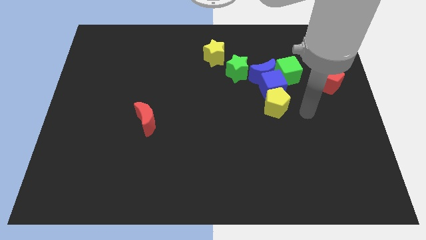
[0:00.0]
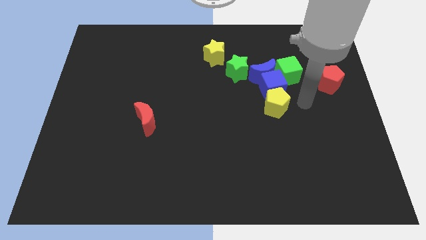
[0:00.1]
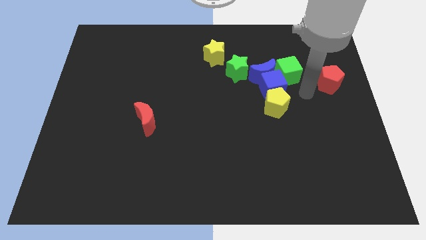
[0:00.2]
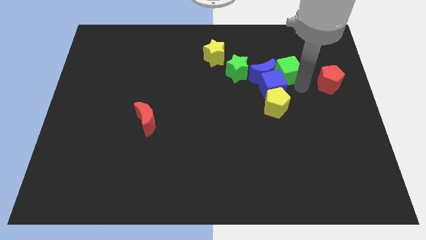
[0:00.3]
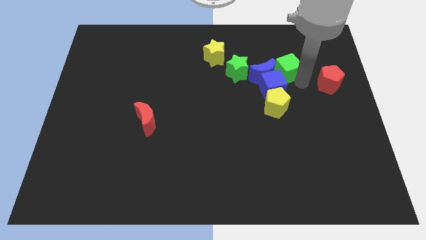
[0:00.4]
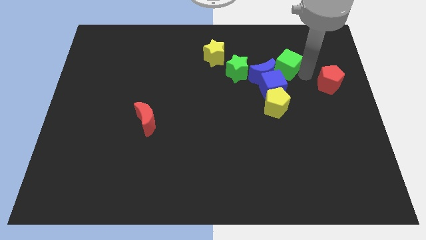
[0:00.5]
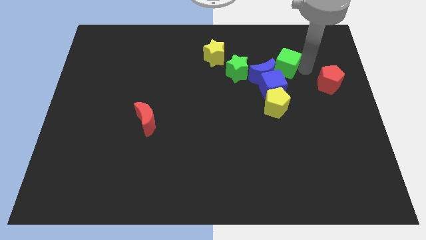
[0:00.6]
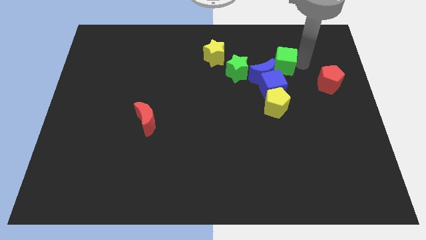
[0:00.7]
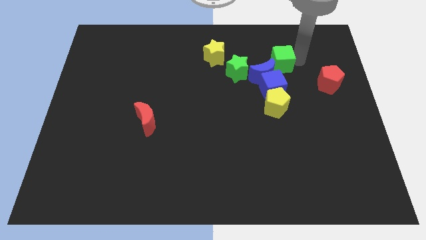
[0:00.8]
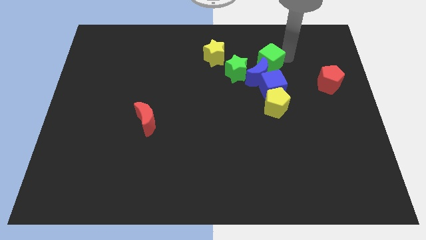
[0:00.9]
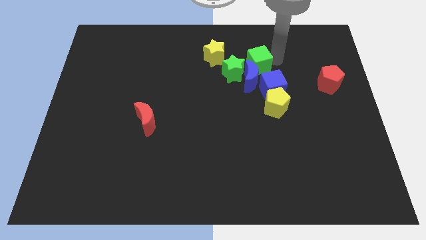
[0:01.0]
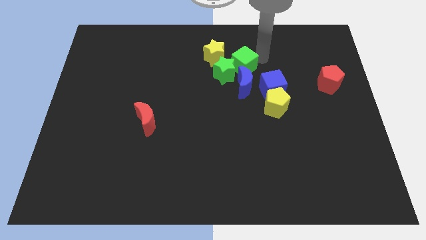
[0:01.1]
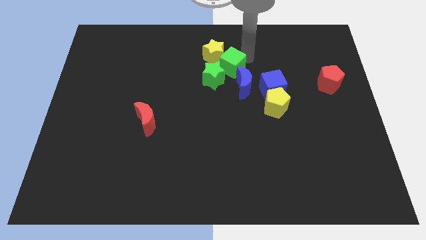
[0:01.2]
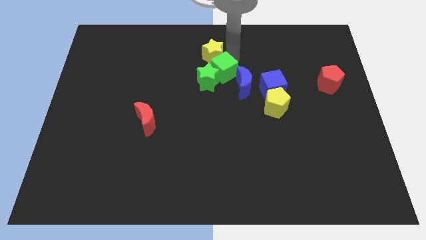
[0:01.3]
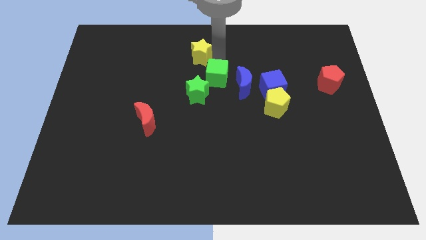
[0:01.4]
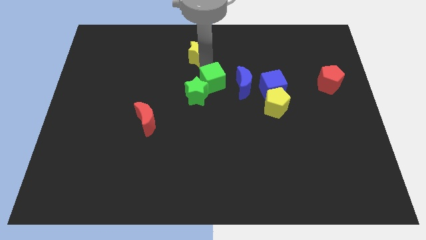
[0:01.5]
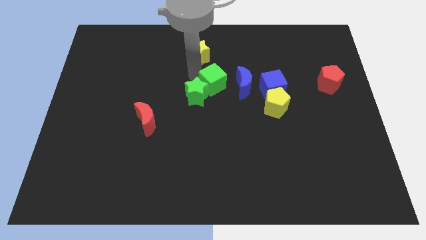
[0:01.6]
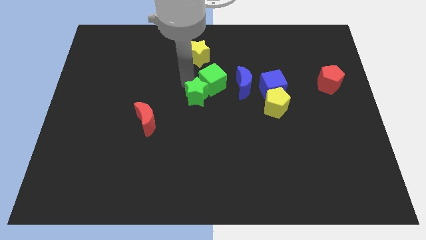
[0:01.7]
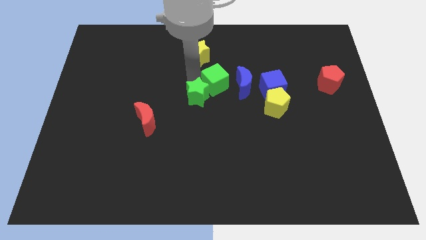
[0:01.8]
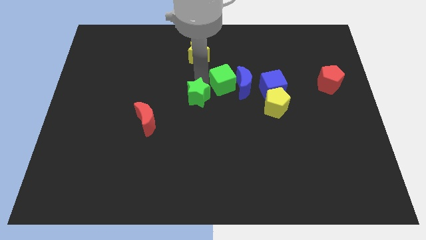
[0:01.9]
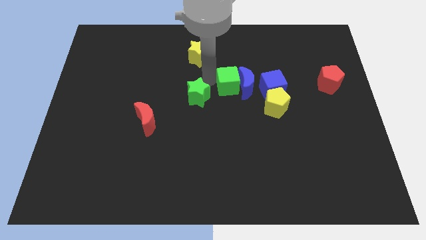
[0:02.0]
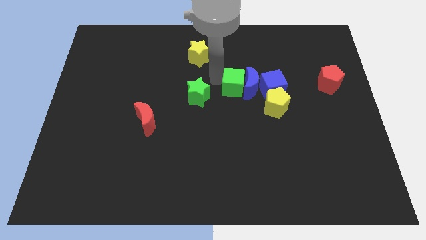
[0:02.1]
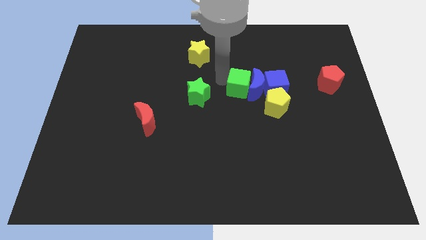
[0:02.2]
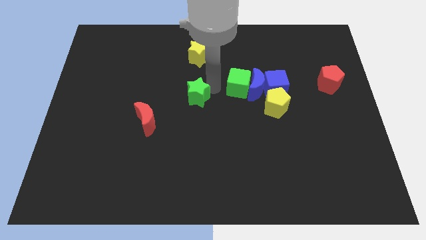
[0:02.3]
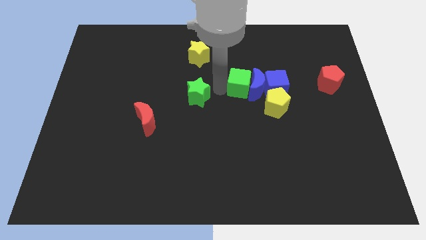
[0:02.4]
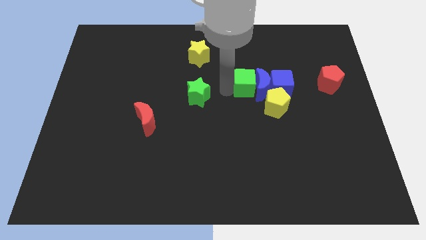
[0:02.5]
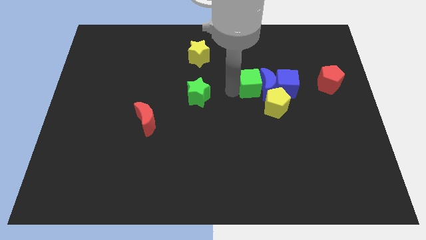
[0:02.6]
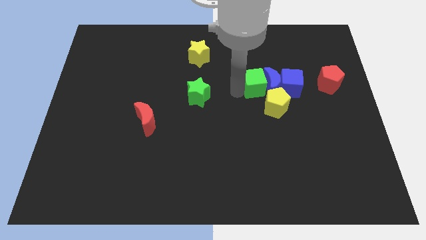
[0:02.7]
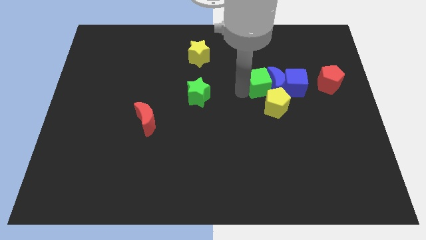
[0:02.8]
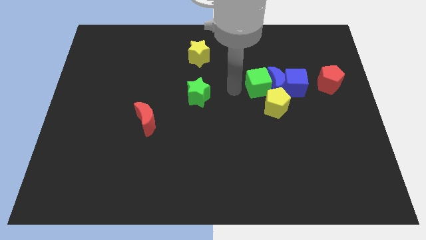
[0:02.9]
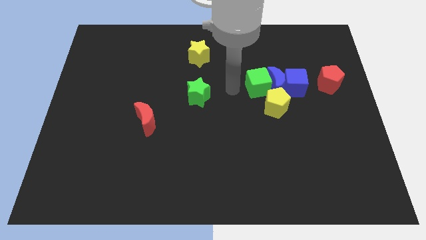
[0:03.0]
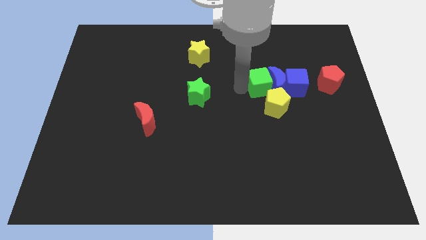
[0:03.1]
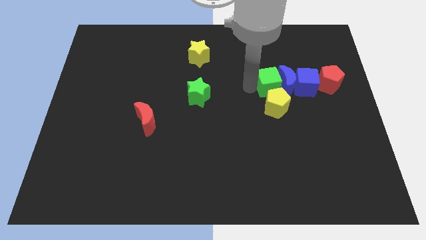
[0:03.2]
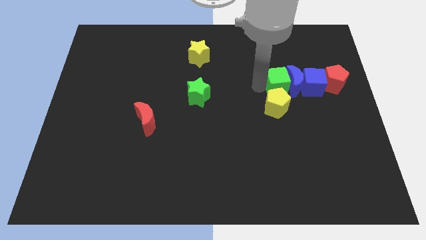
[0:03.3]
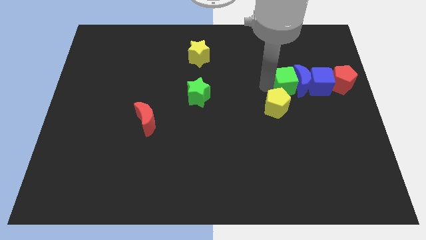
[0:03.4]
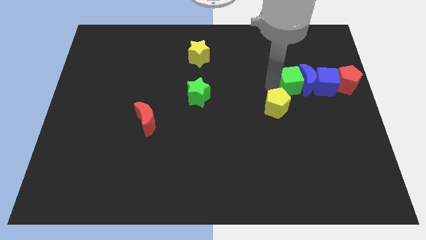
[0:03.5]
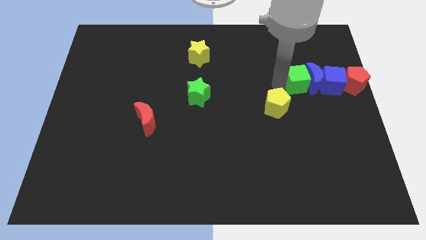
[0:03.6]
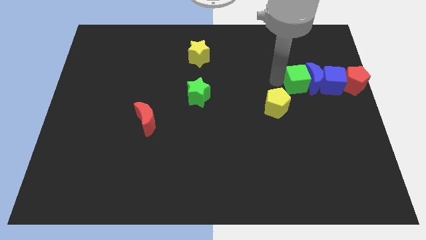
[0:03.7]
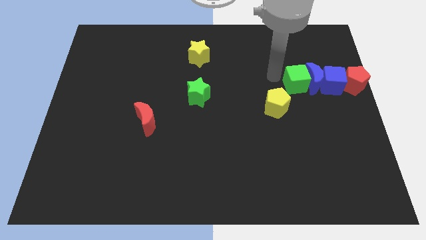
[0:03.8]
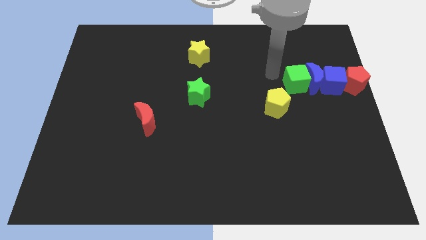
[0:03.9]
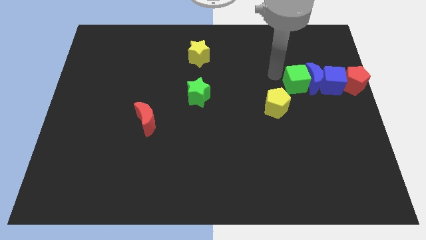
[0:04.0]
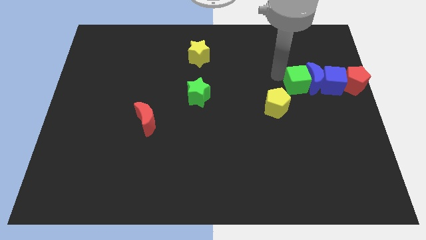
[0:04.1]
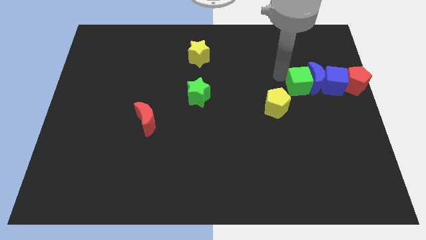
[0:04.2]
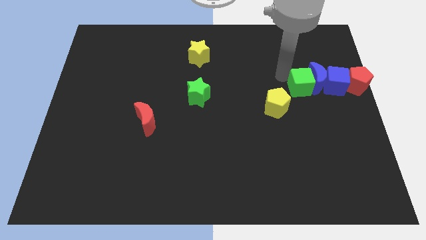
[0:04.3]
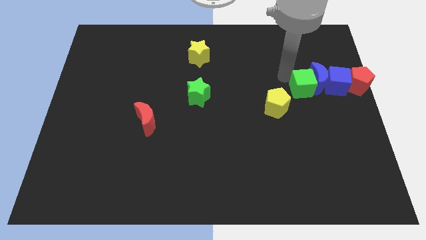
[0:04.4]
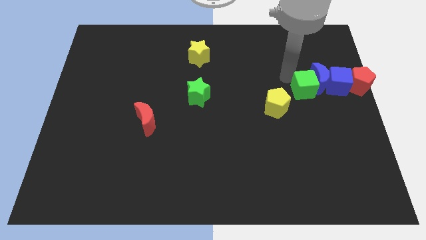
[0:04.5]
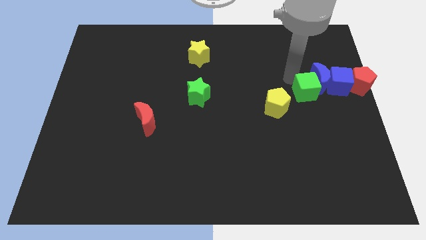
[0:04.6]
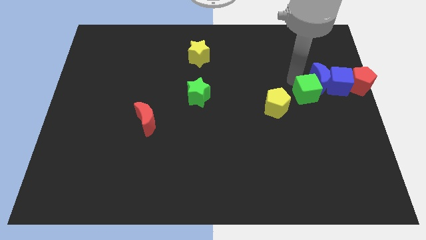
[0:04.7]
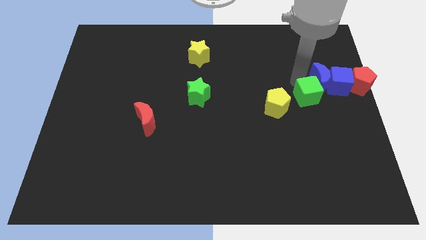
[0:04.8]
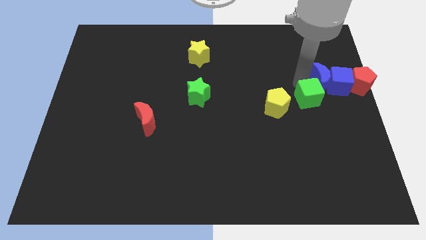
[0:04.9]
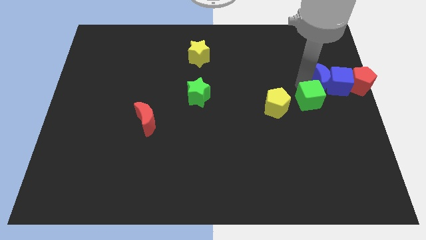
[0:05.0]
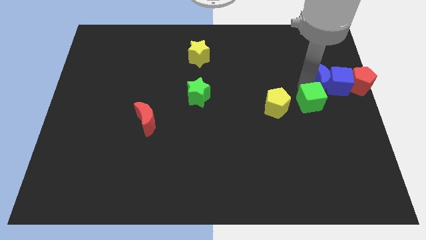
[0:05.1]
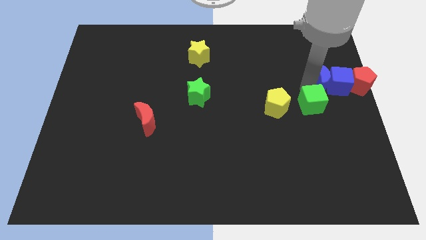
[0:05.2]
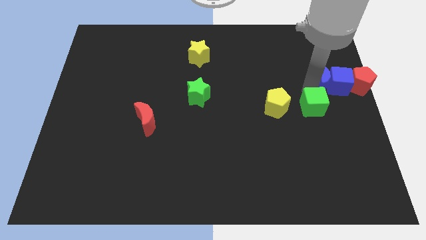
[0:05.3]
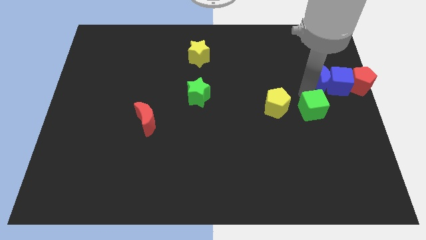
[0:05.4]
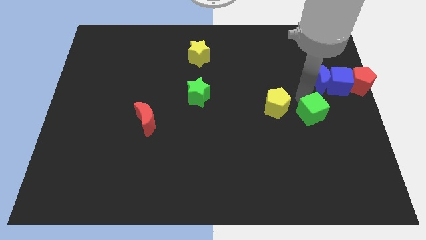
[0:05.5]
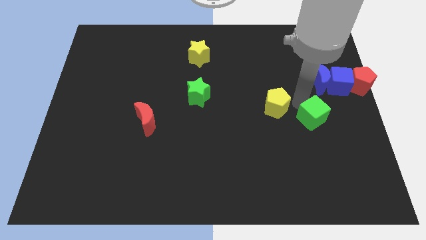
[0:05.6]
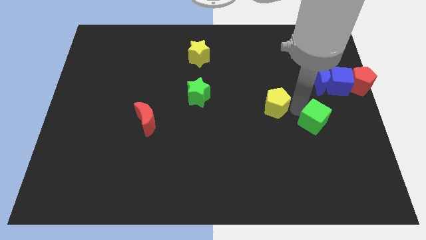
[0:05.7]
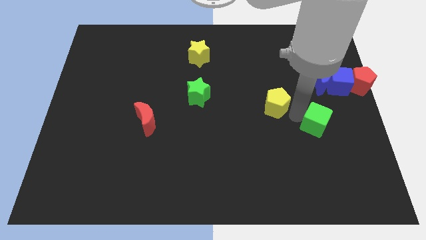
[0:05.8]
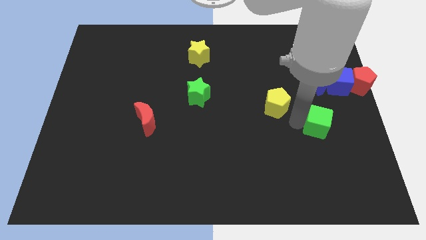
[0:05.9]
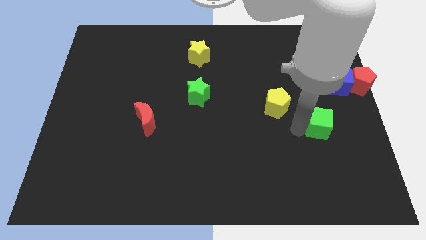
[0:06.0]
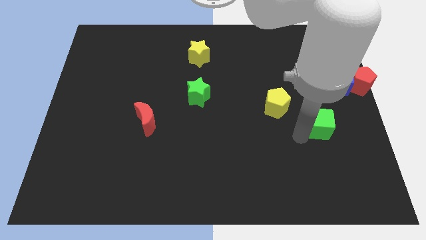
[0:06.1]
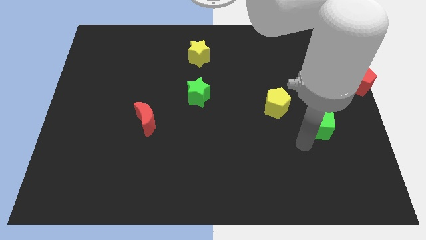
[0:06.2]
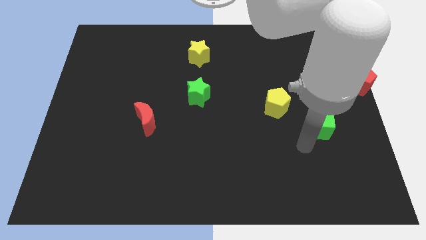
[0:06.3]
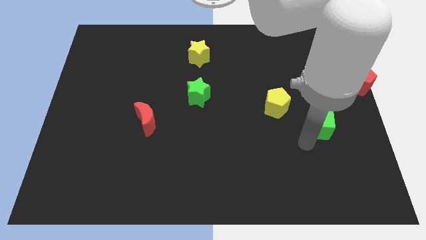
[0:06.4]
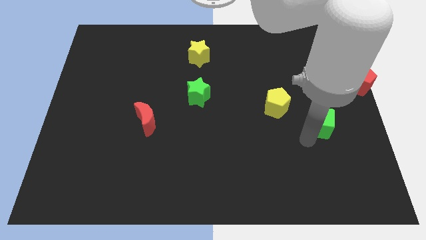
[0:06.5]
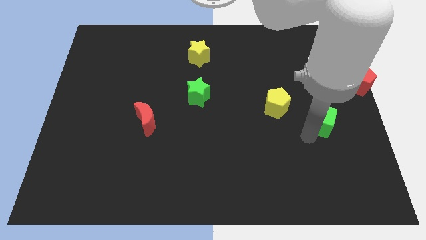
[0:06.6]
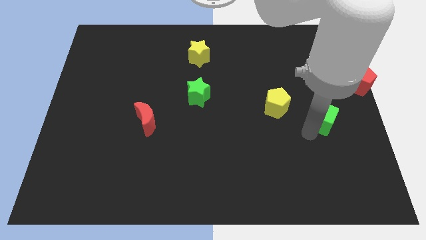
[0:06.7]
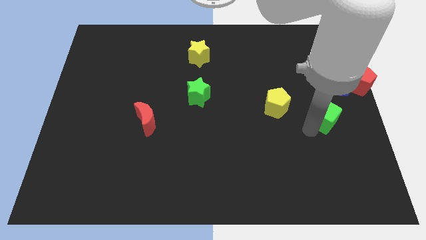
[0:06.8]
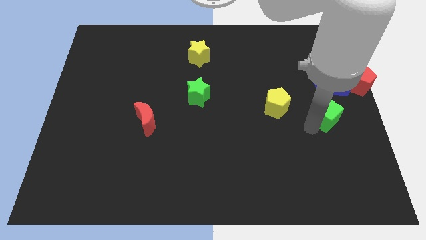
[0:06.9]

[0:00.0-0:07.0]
put the green cube to the right side
